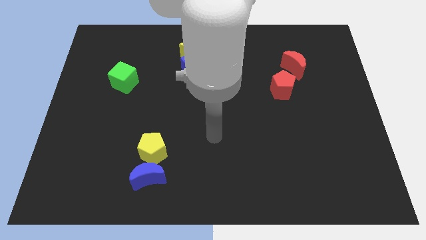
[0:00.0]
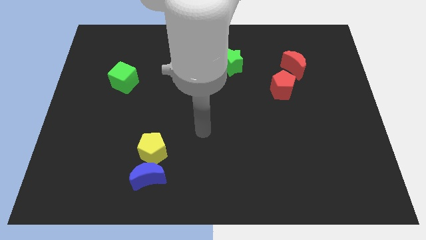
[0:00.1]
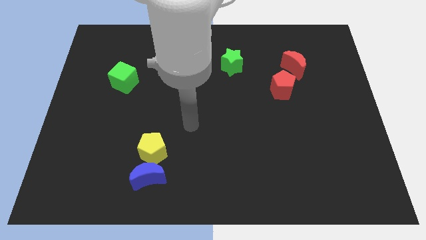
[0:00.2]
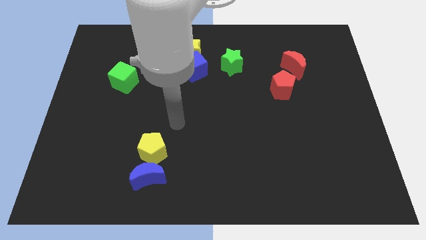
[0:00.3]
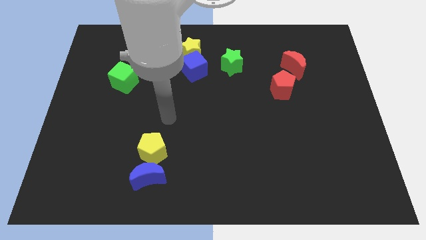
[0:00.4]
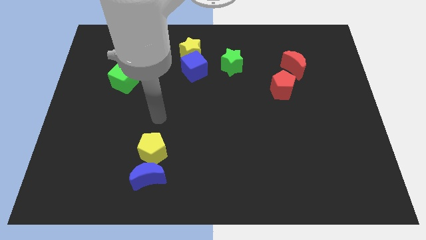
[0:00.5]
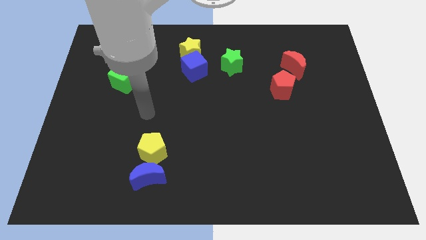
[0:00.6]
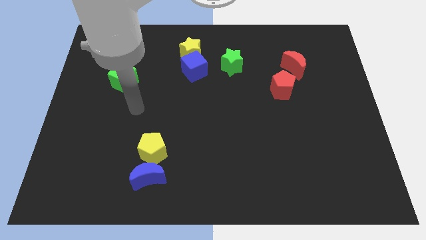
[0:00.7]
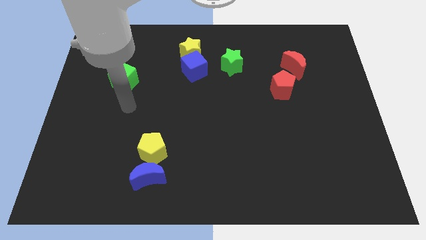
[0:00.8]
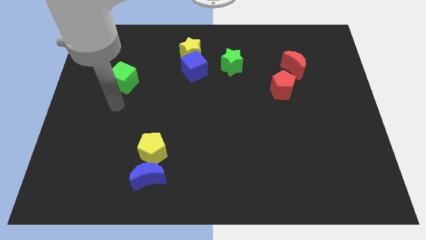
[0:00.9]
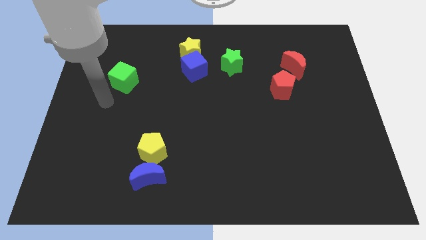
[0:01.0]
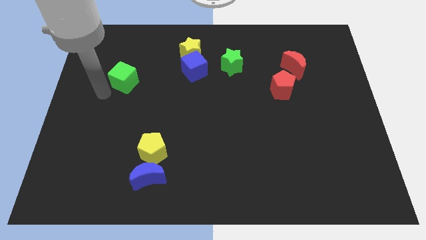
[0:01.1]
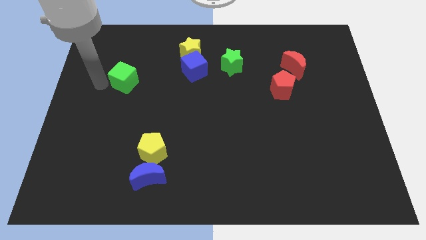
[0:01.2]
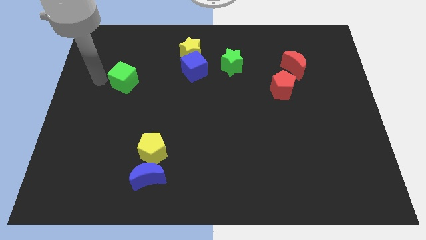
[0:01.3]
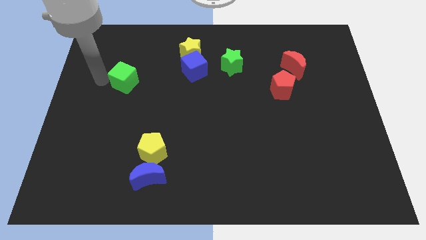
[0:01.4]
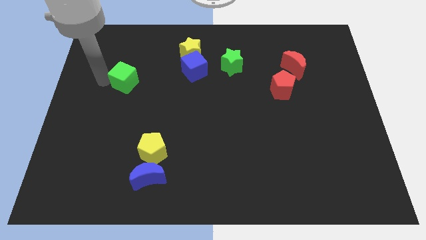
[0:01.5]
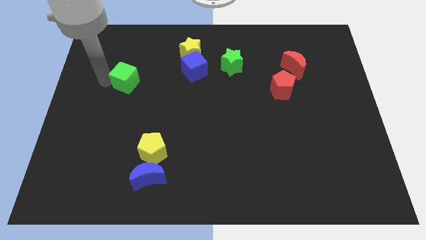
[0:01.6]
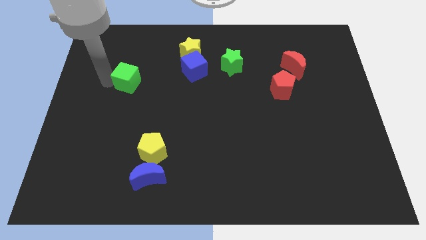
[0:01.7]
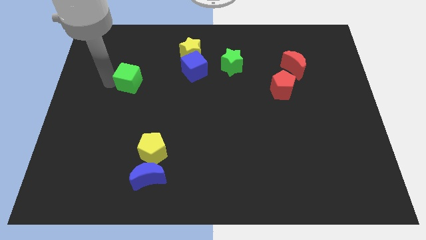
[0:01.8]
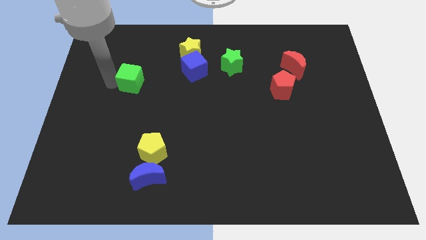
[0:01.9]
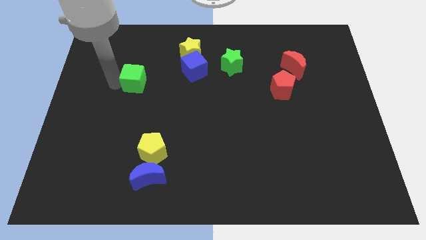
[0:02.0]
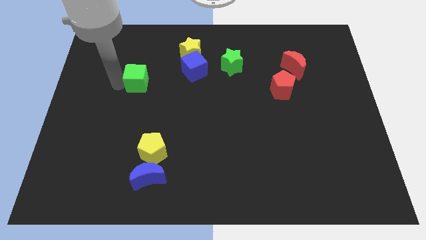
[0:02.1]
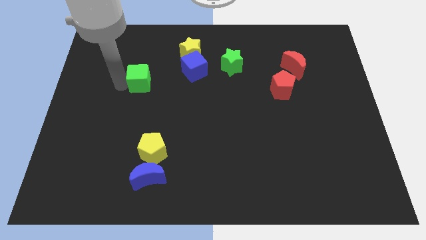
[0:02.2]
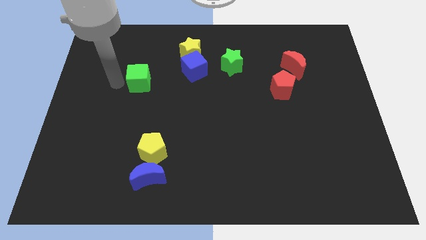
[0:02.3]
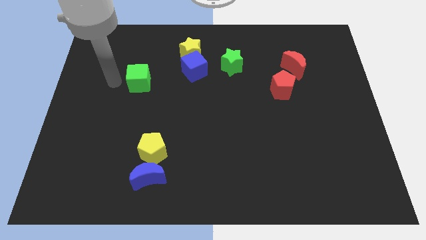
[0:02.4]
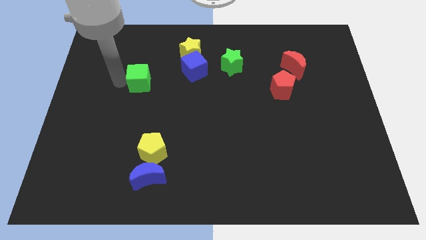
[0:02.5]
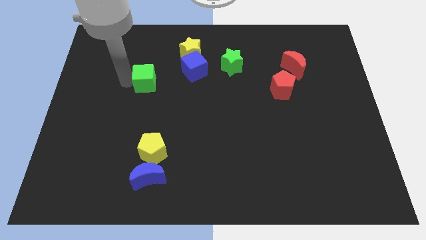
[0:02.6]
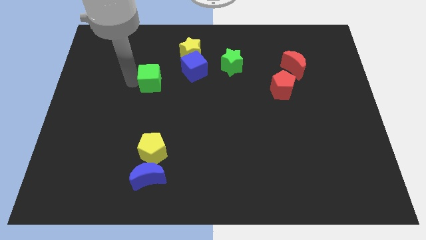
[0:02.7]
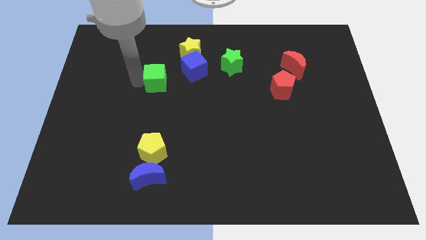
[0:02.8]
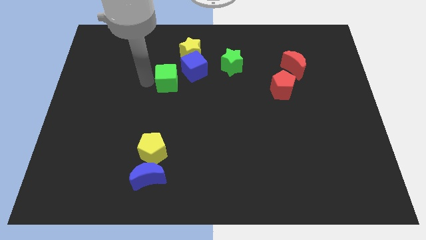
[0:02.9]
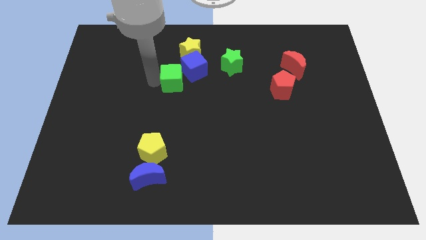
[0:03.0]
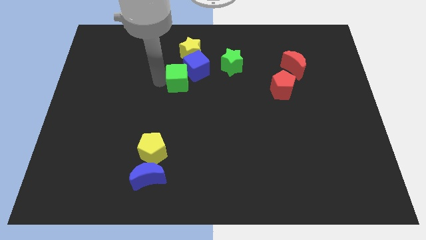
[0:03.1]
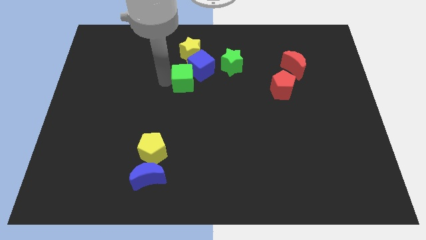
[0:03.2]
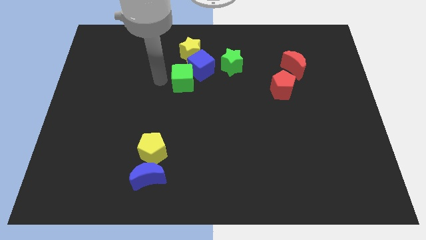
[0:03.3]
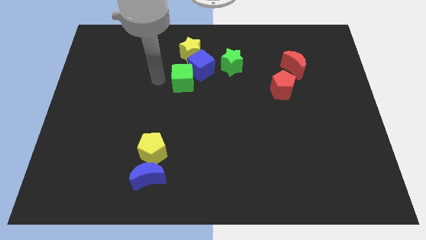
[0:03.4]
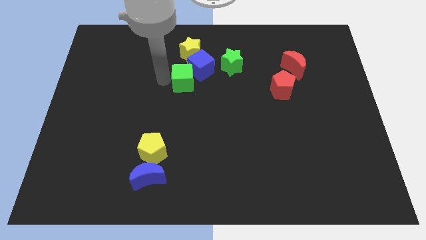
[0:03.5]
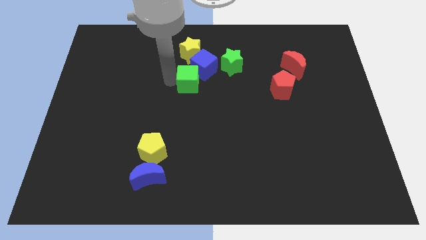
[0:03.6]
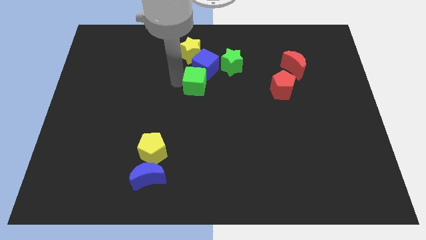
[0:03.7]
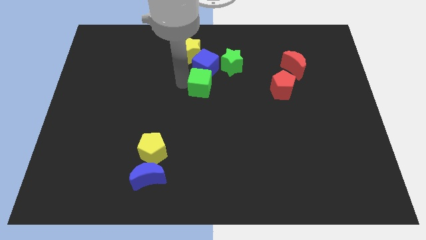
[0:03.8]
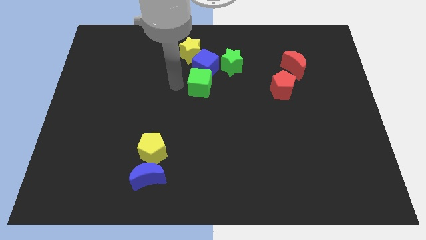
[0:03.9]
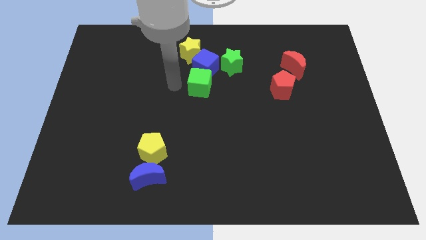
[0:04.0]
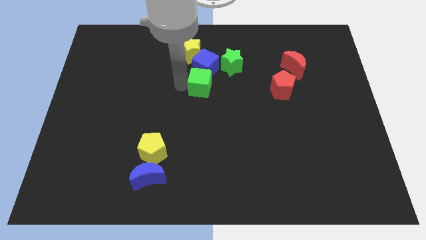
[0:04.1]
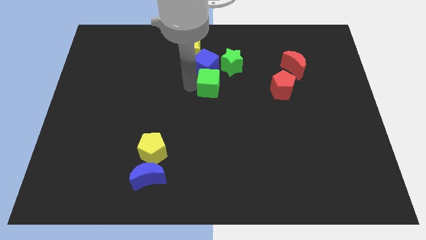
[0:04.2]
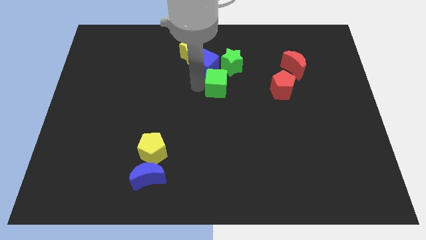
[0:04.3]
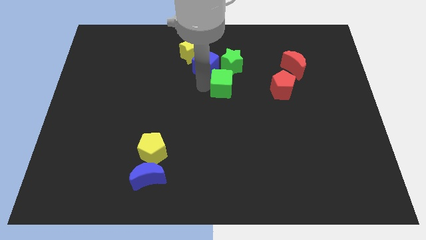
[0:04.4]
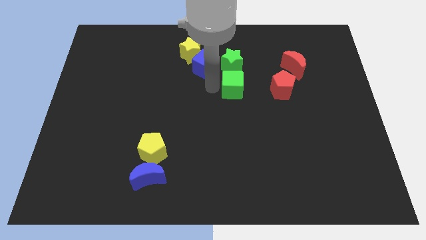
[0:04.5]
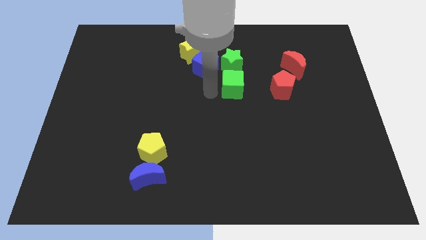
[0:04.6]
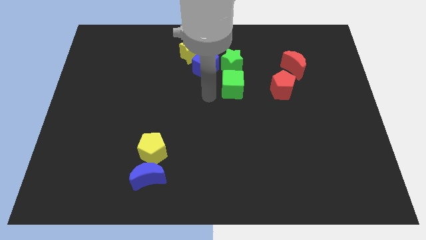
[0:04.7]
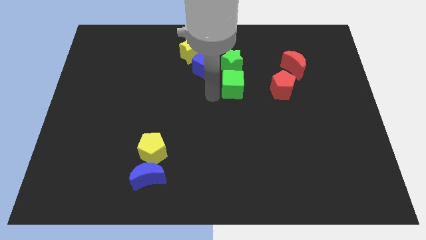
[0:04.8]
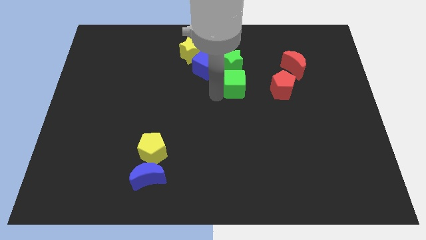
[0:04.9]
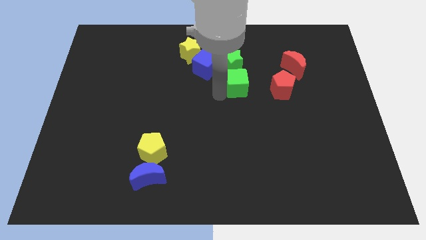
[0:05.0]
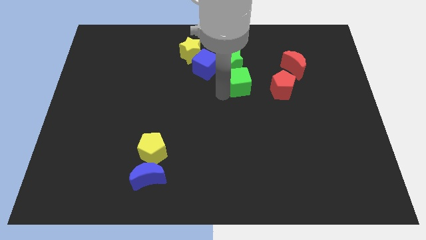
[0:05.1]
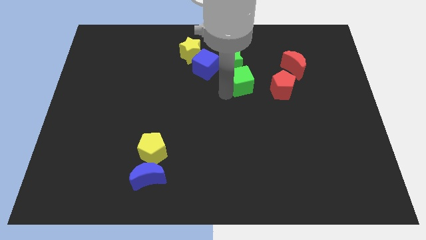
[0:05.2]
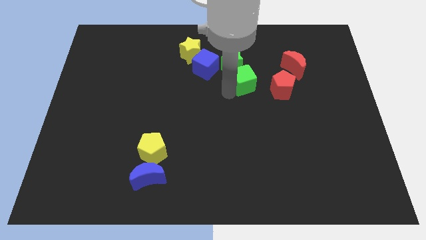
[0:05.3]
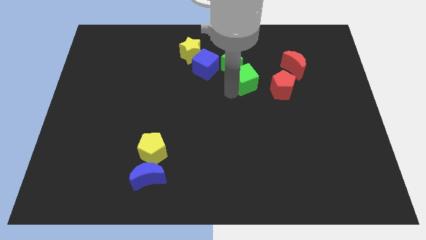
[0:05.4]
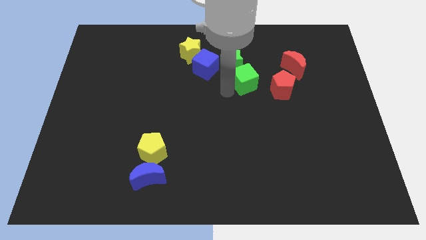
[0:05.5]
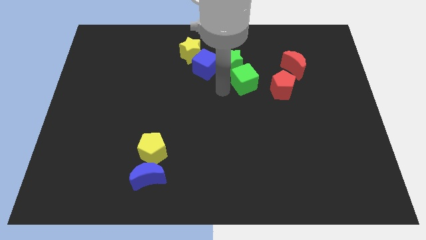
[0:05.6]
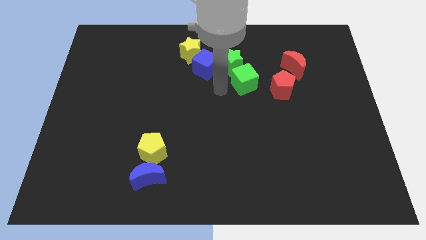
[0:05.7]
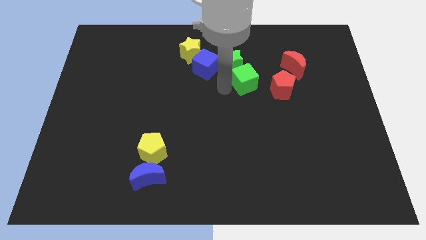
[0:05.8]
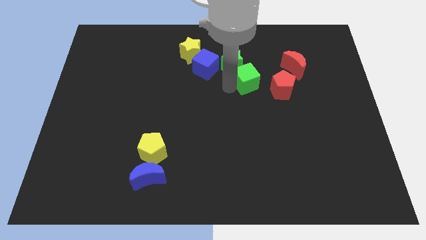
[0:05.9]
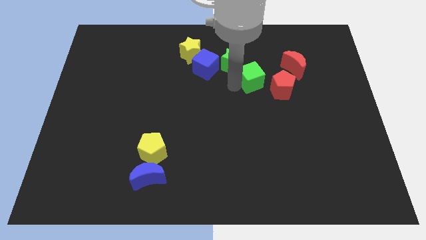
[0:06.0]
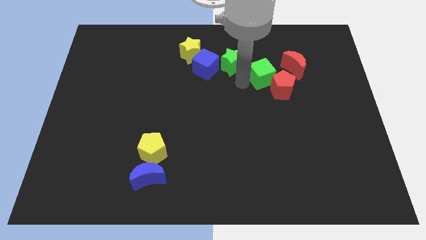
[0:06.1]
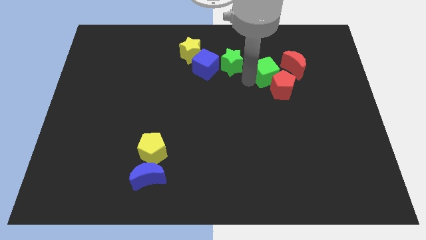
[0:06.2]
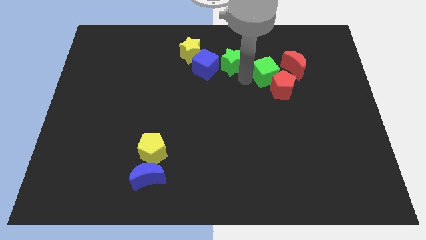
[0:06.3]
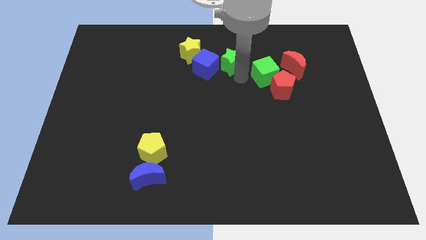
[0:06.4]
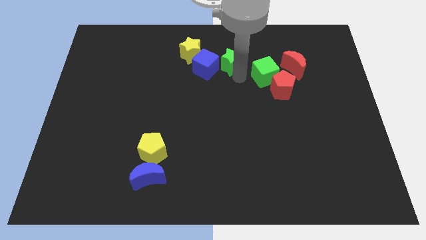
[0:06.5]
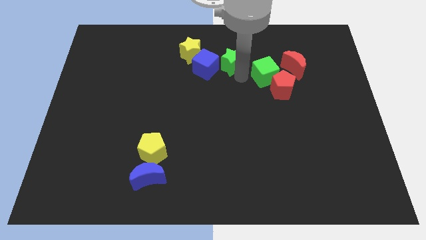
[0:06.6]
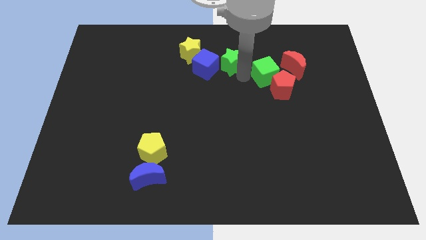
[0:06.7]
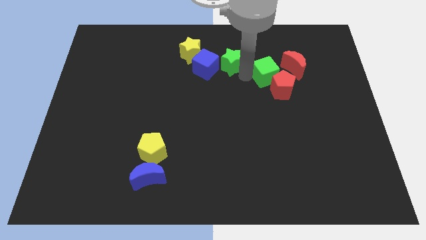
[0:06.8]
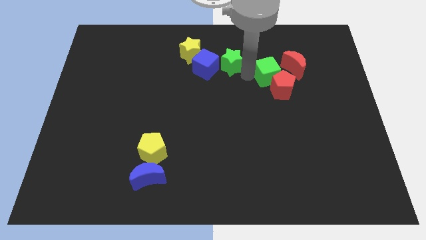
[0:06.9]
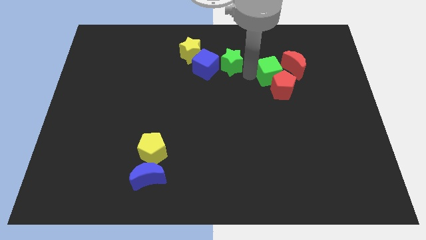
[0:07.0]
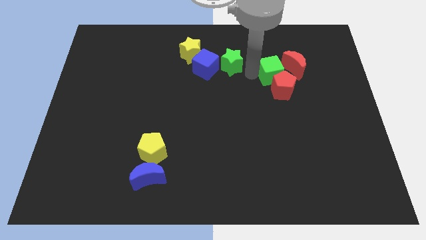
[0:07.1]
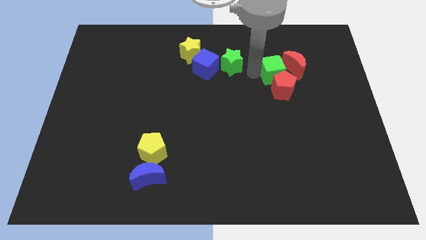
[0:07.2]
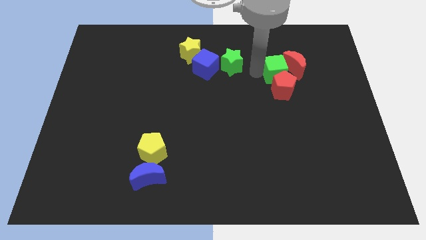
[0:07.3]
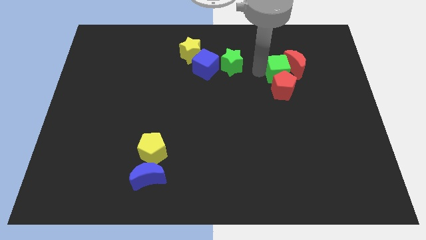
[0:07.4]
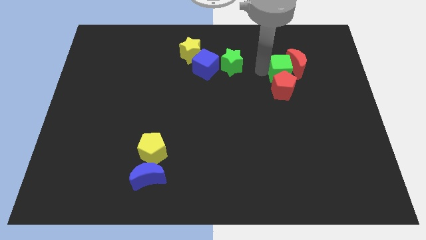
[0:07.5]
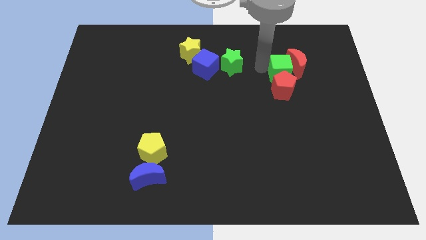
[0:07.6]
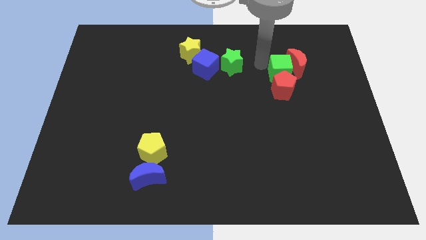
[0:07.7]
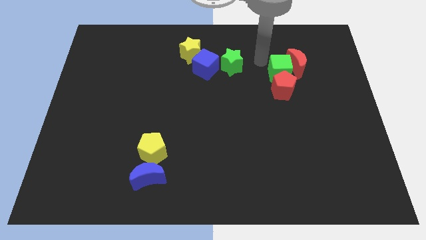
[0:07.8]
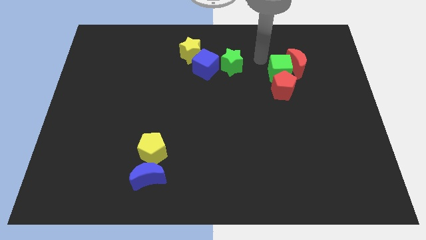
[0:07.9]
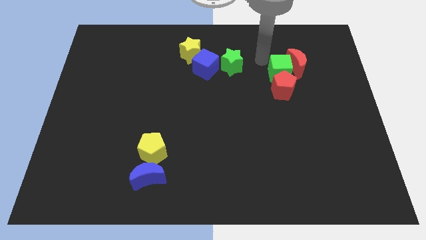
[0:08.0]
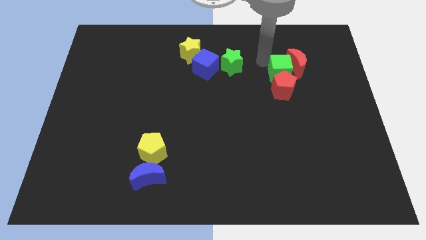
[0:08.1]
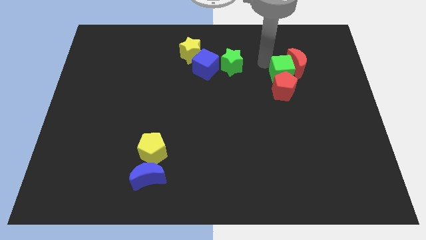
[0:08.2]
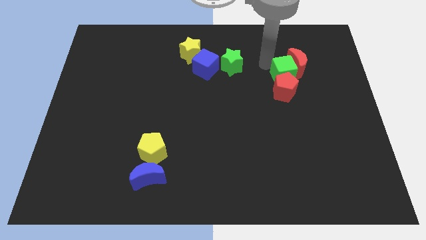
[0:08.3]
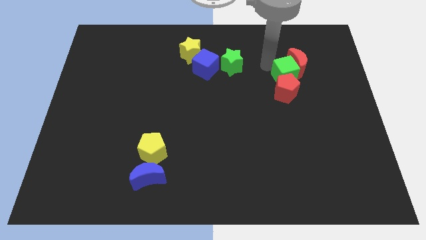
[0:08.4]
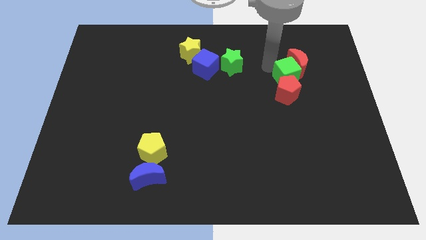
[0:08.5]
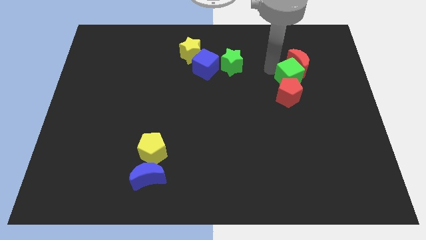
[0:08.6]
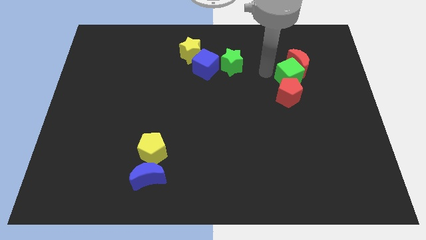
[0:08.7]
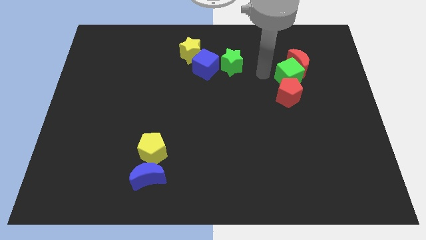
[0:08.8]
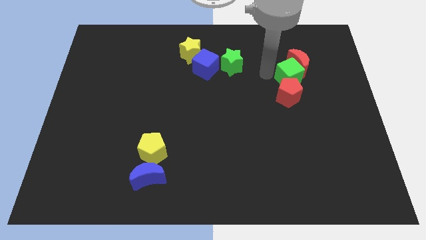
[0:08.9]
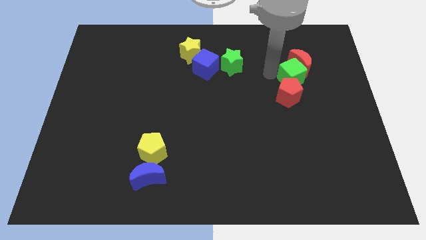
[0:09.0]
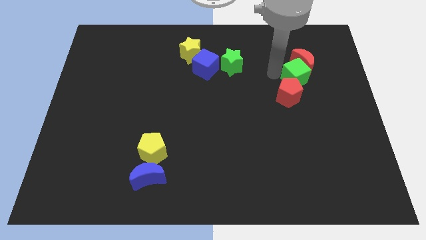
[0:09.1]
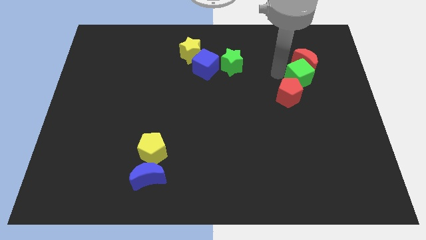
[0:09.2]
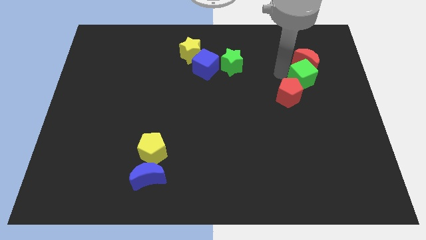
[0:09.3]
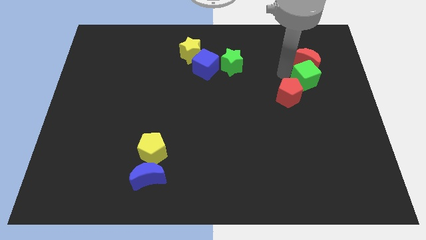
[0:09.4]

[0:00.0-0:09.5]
slide the green cube to the bottom right side of the red moon
